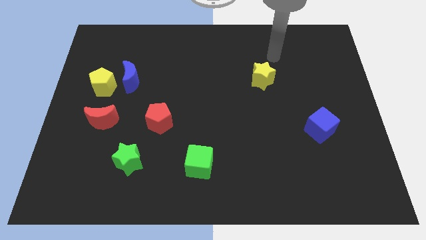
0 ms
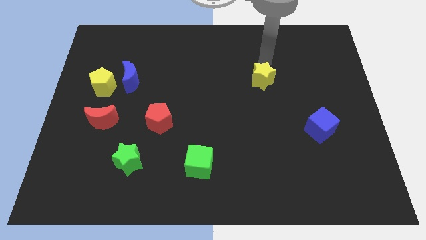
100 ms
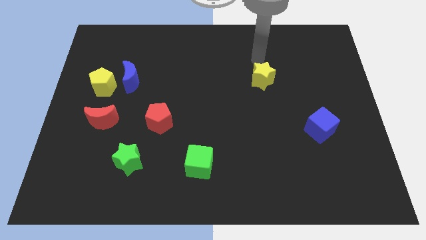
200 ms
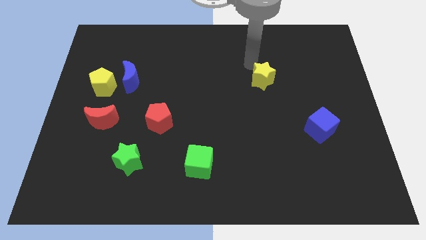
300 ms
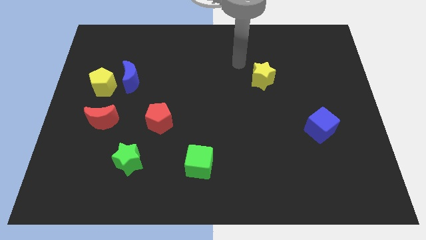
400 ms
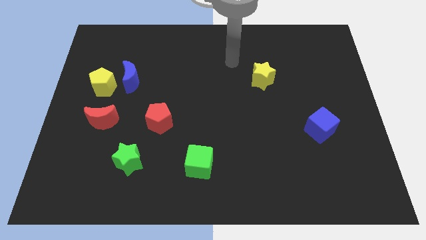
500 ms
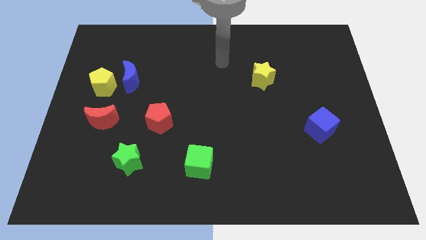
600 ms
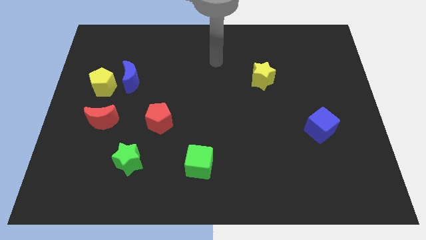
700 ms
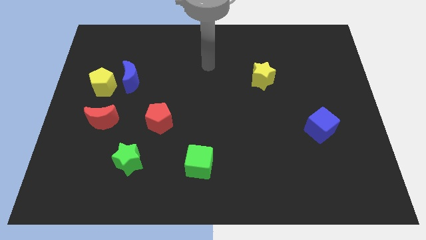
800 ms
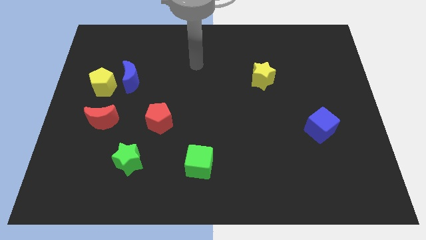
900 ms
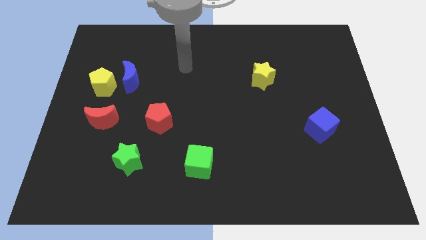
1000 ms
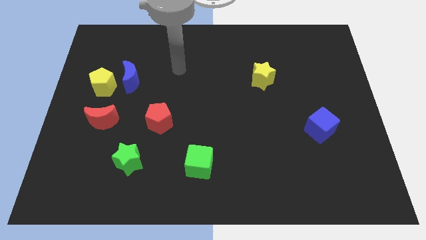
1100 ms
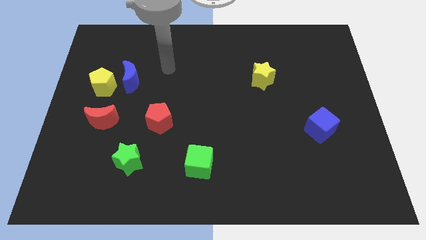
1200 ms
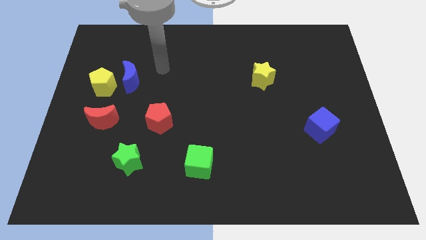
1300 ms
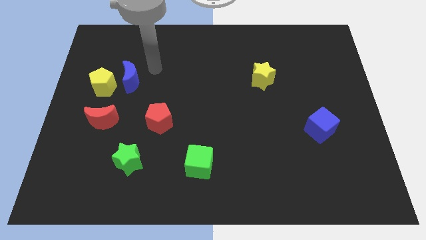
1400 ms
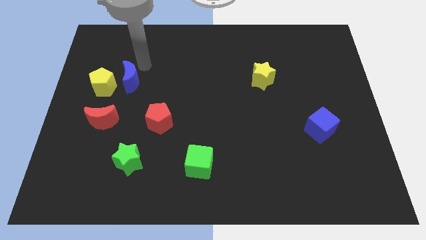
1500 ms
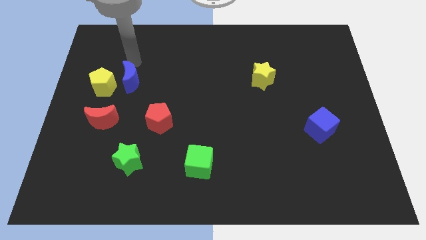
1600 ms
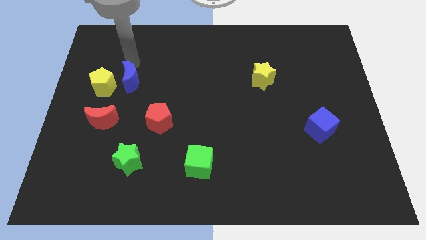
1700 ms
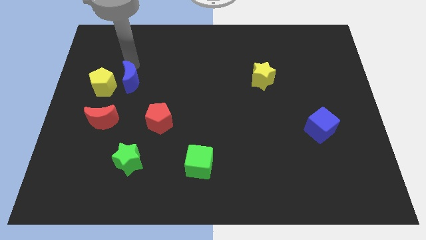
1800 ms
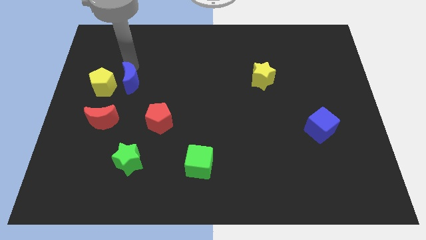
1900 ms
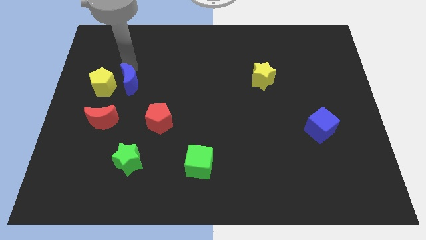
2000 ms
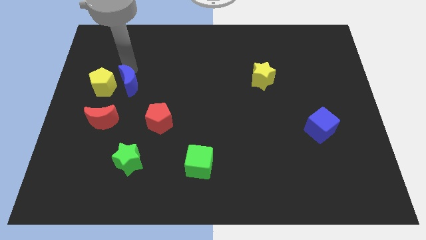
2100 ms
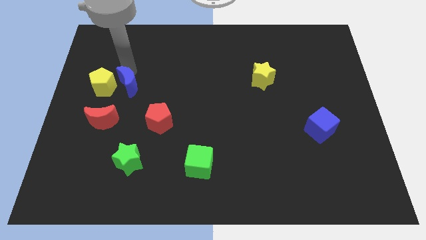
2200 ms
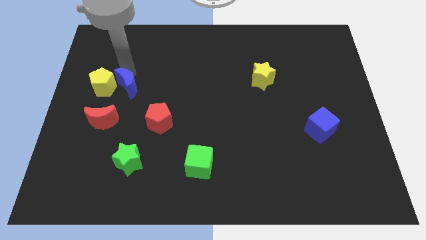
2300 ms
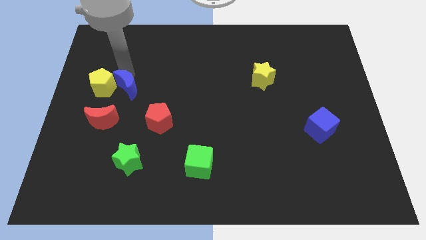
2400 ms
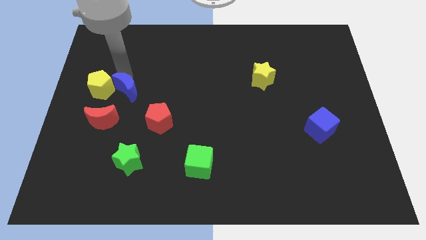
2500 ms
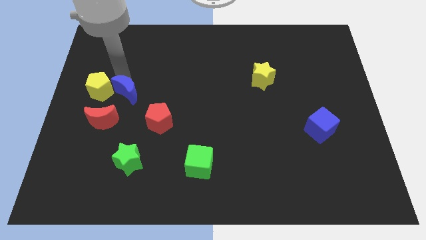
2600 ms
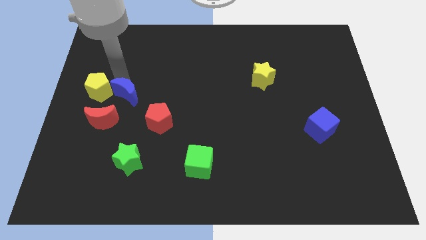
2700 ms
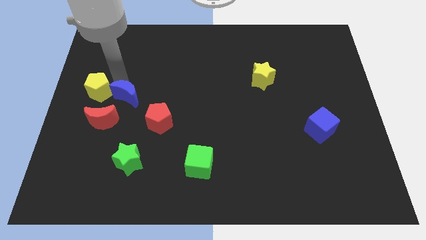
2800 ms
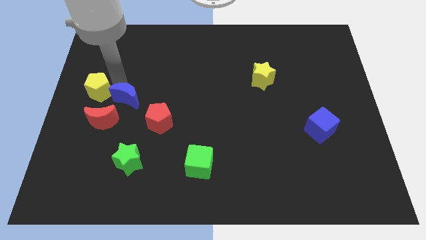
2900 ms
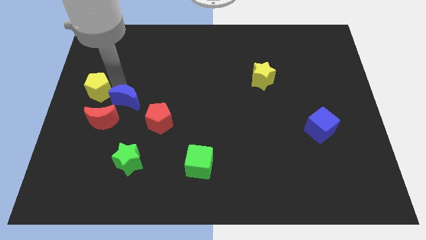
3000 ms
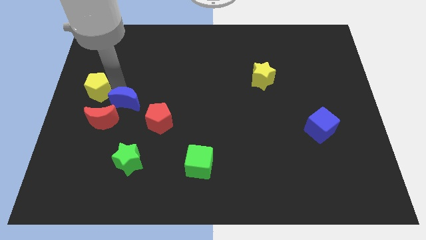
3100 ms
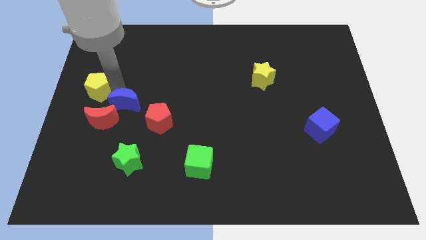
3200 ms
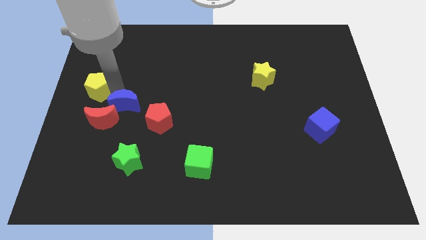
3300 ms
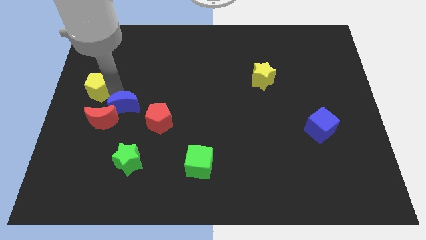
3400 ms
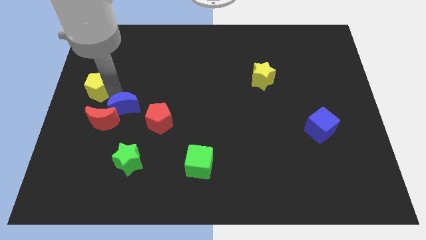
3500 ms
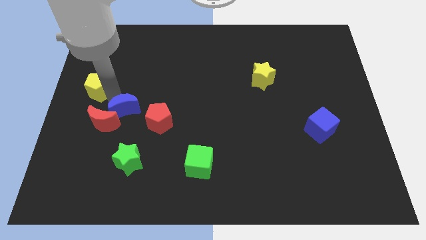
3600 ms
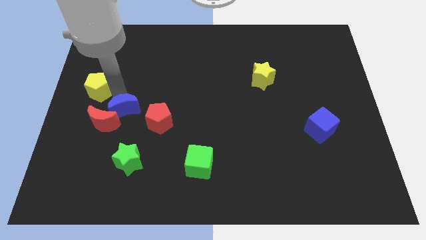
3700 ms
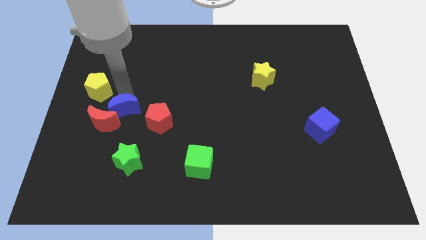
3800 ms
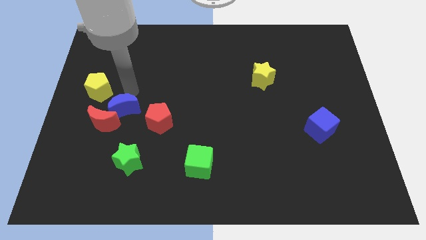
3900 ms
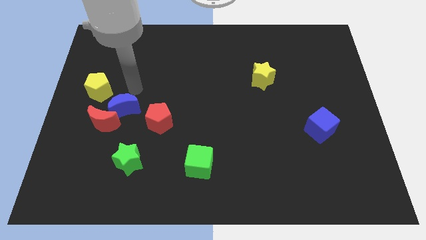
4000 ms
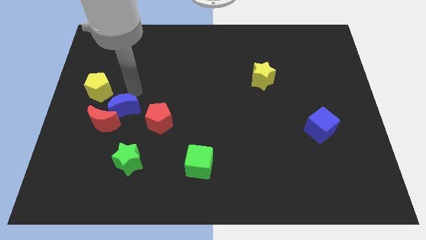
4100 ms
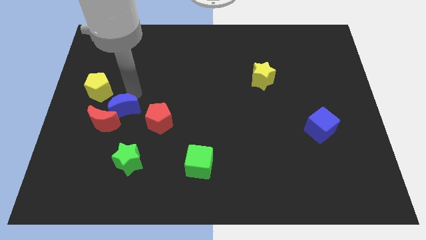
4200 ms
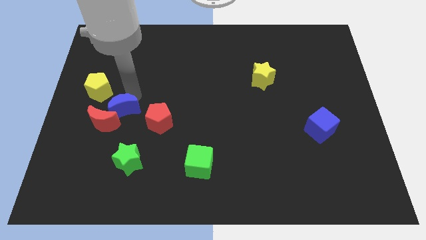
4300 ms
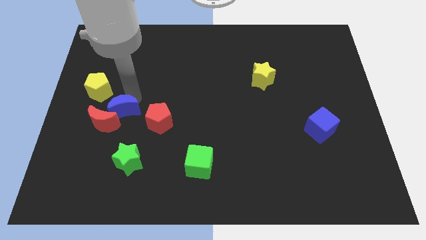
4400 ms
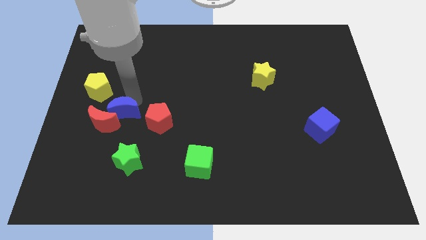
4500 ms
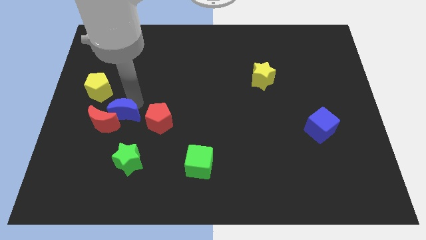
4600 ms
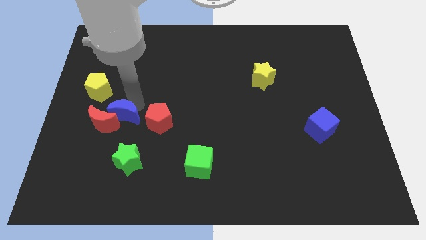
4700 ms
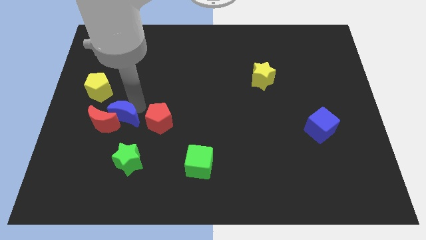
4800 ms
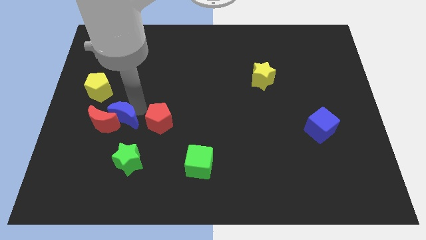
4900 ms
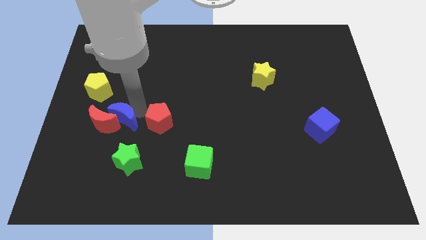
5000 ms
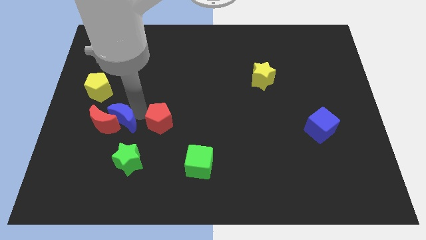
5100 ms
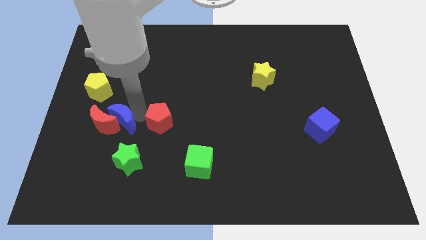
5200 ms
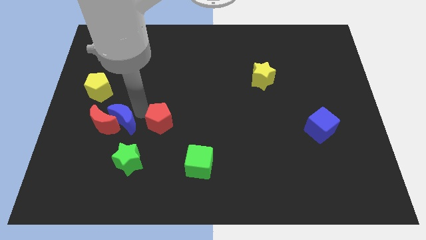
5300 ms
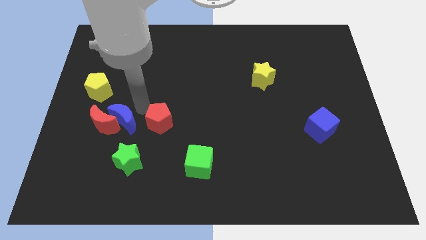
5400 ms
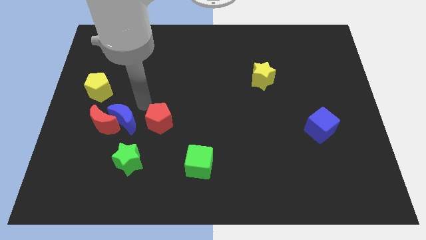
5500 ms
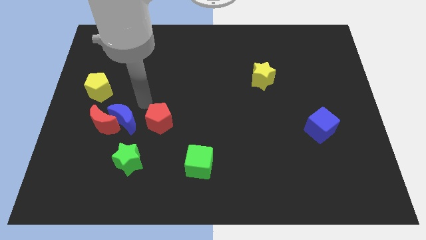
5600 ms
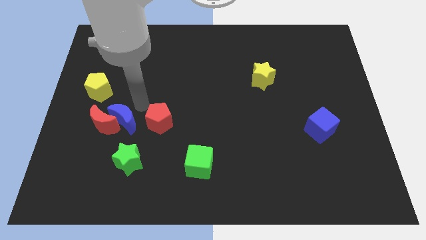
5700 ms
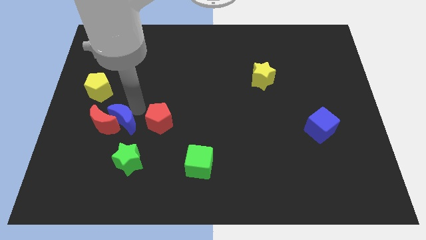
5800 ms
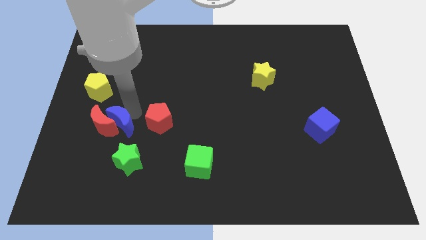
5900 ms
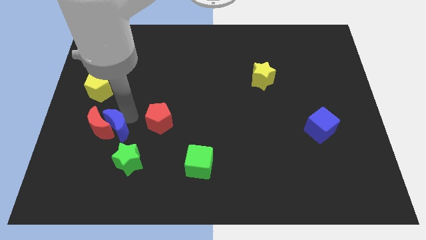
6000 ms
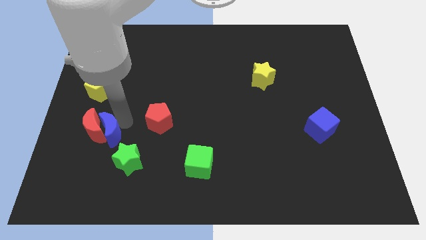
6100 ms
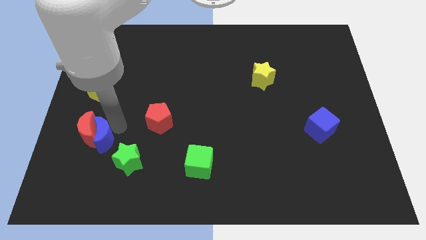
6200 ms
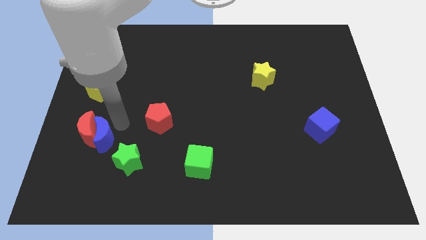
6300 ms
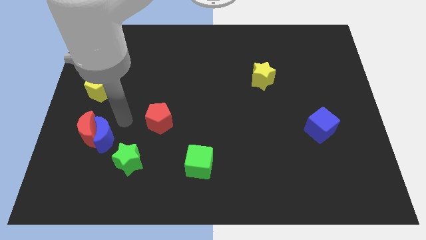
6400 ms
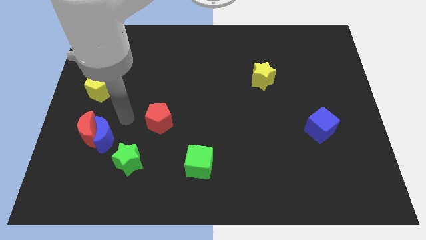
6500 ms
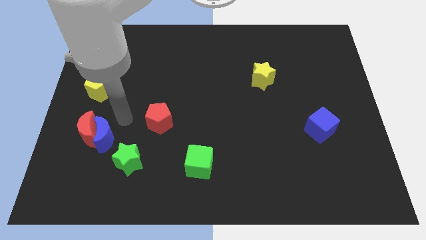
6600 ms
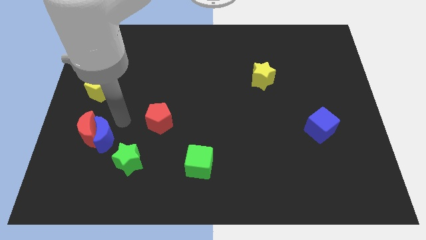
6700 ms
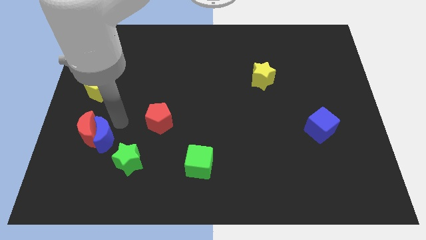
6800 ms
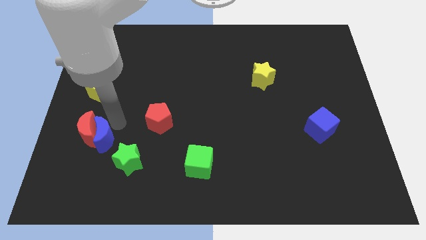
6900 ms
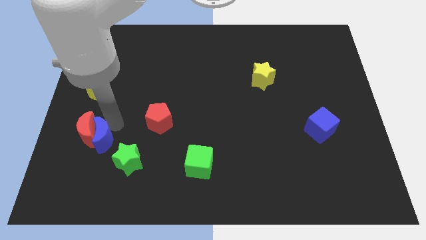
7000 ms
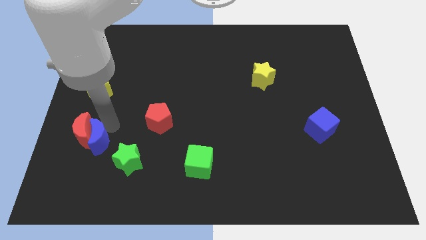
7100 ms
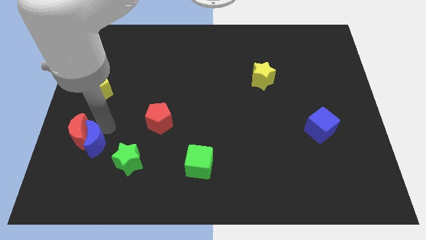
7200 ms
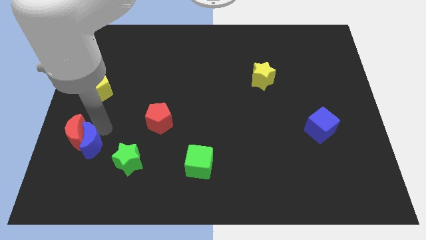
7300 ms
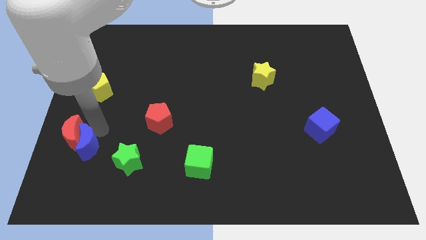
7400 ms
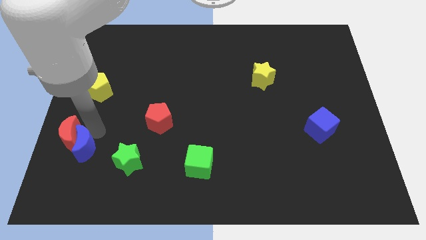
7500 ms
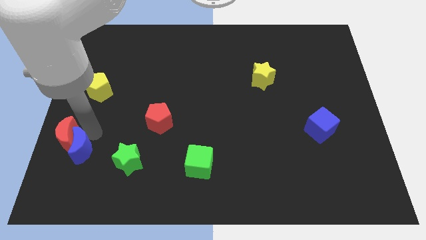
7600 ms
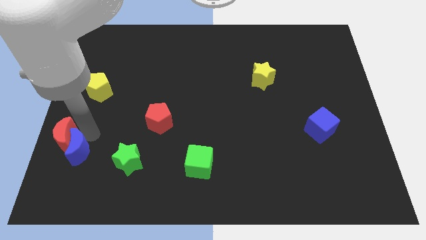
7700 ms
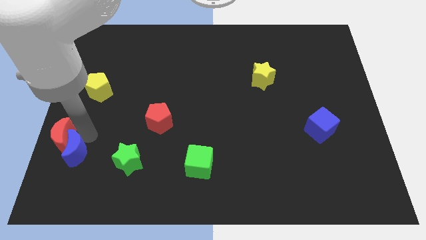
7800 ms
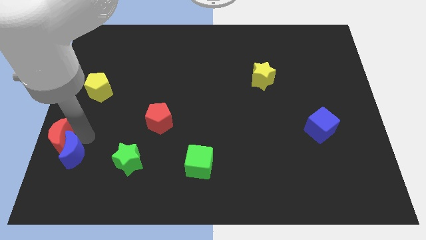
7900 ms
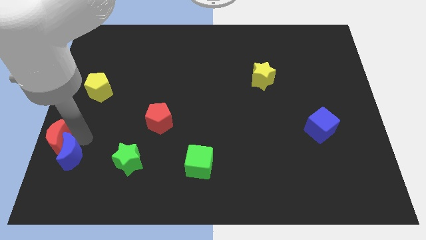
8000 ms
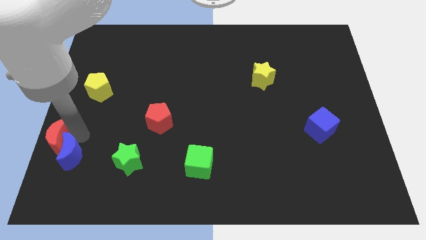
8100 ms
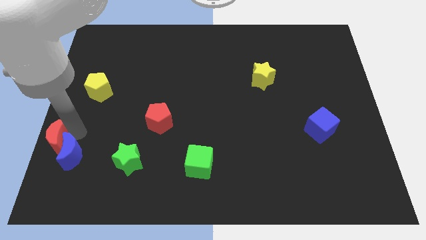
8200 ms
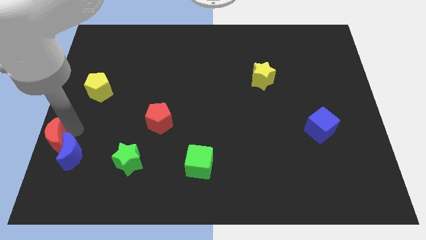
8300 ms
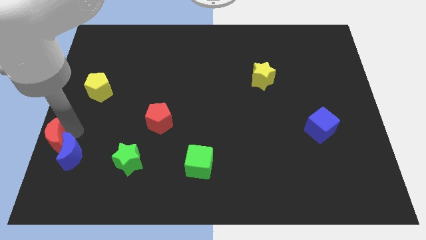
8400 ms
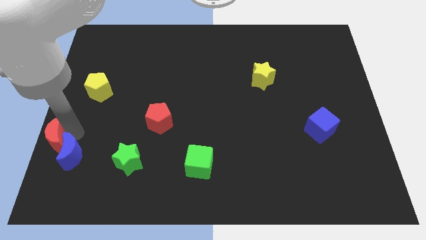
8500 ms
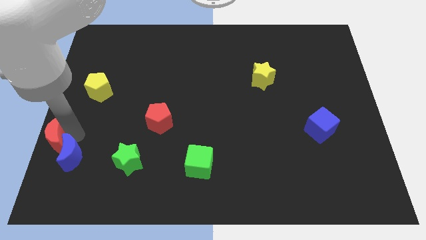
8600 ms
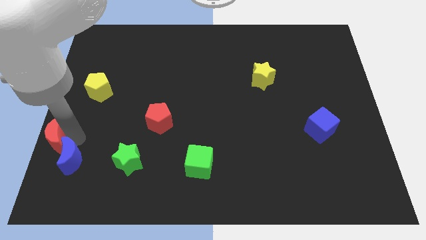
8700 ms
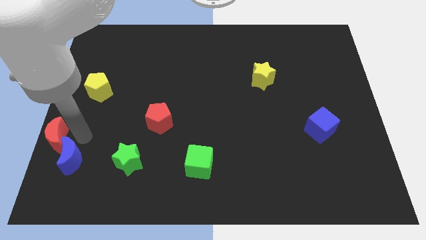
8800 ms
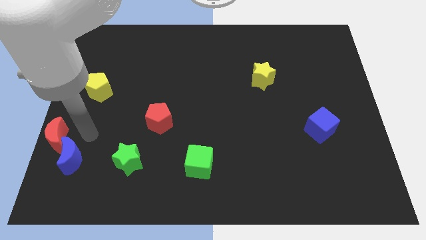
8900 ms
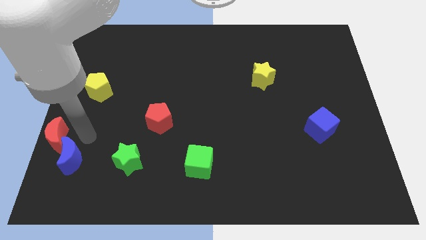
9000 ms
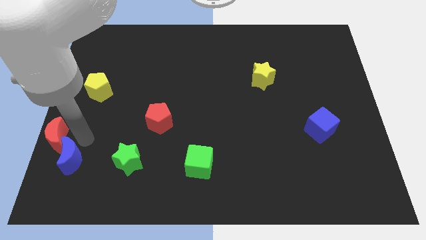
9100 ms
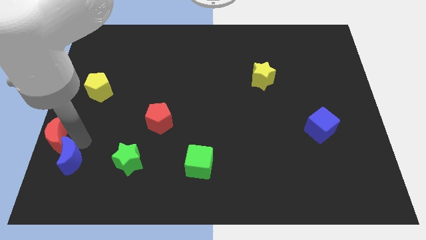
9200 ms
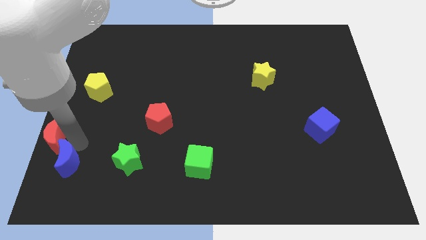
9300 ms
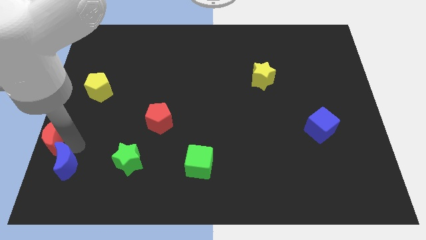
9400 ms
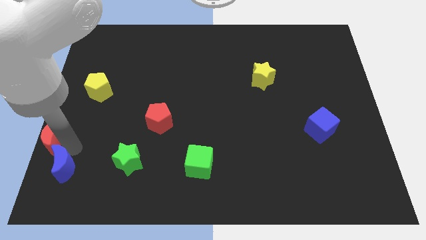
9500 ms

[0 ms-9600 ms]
slide the blue moon to the bottom left corner
